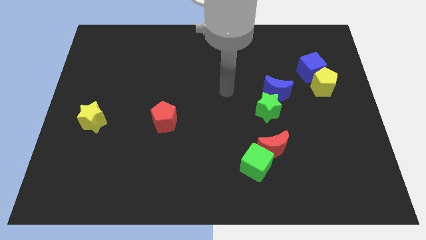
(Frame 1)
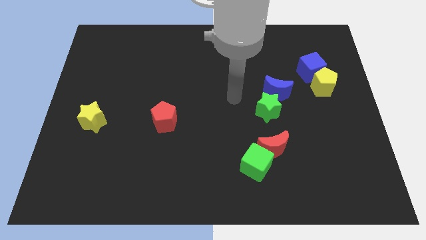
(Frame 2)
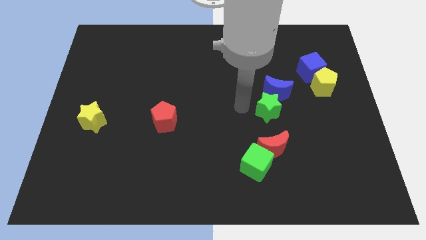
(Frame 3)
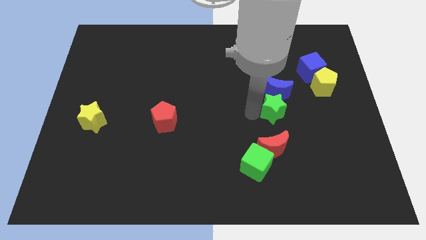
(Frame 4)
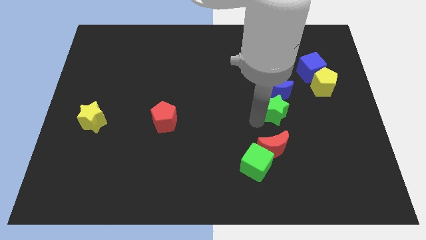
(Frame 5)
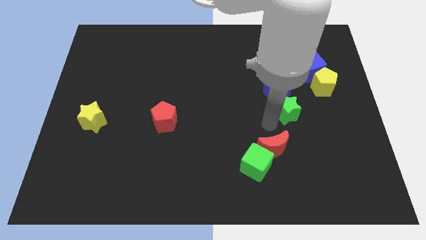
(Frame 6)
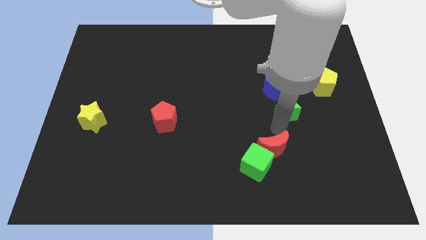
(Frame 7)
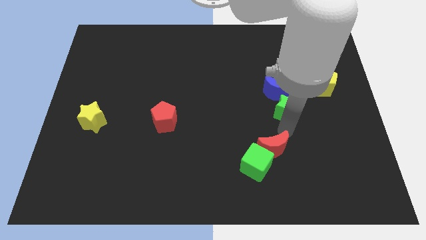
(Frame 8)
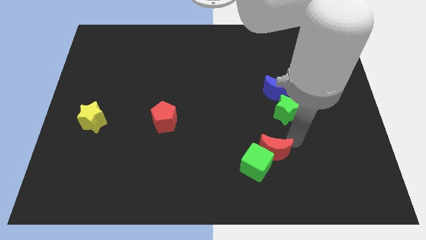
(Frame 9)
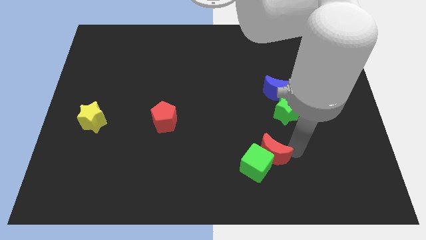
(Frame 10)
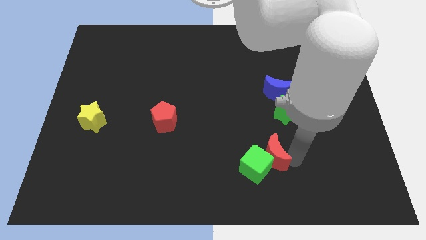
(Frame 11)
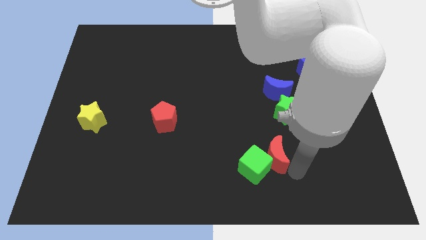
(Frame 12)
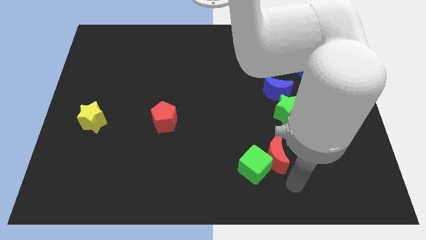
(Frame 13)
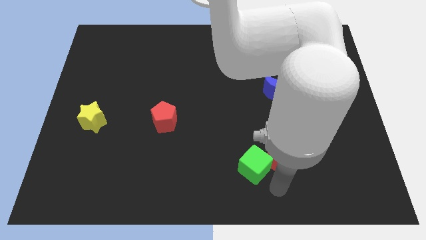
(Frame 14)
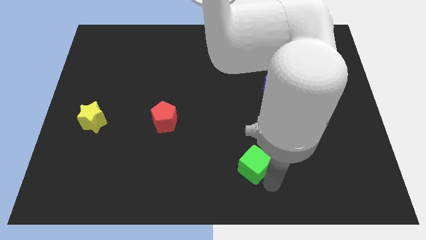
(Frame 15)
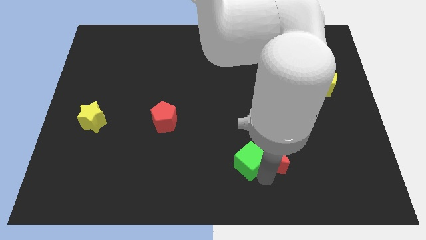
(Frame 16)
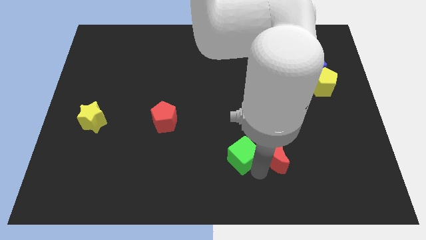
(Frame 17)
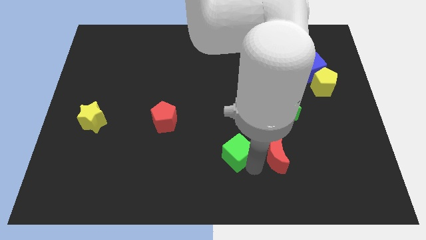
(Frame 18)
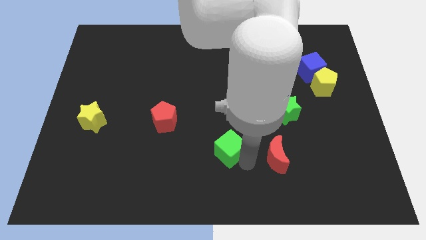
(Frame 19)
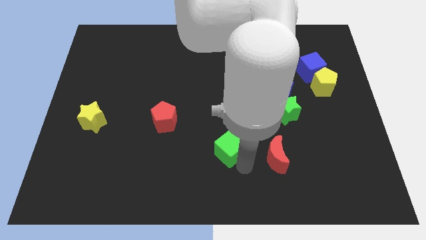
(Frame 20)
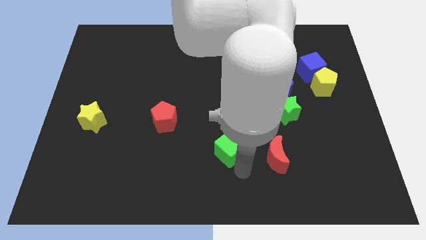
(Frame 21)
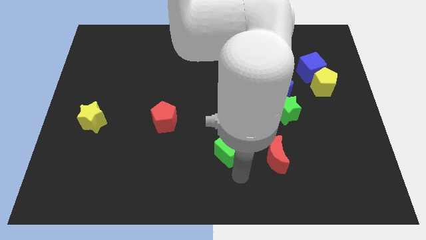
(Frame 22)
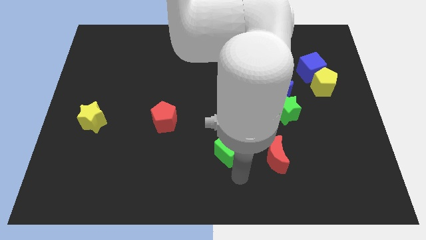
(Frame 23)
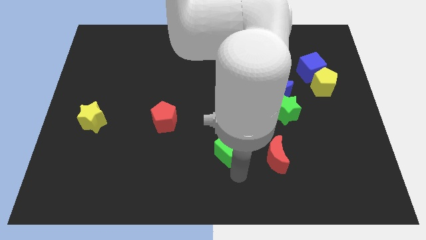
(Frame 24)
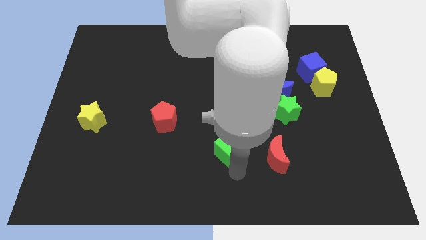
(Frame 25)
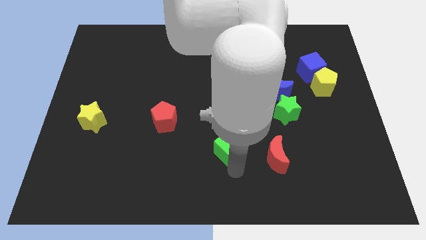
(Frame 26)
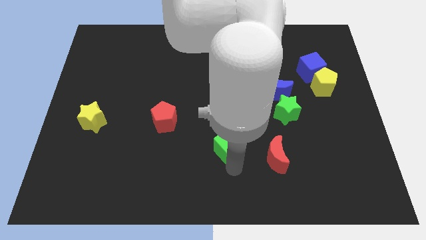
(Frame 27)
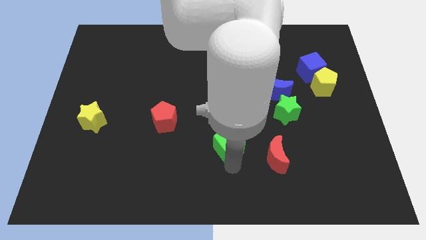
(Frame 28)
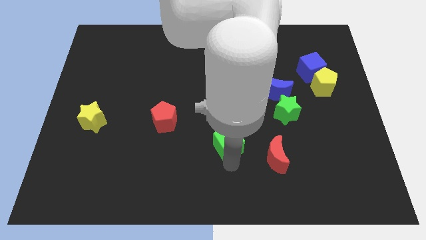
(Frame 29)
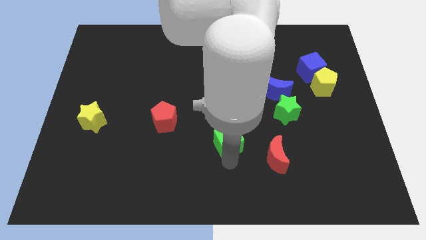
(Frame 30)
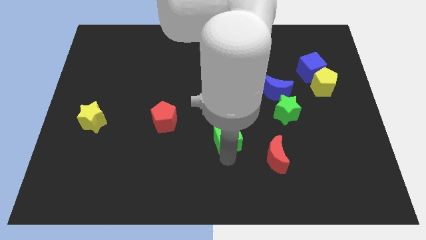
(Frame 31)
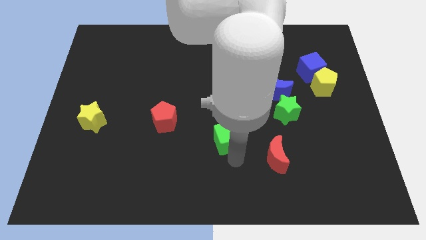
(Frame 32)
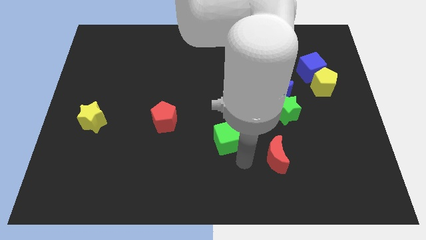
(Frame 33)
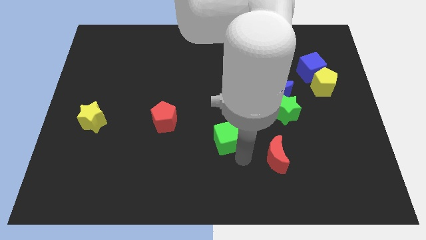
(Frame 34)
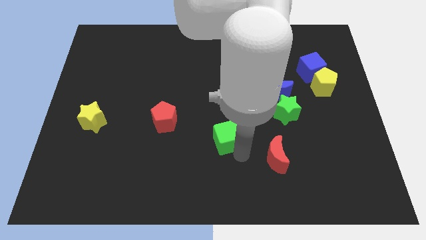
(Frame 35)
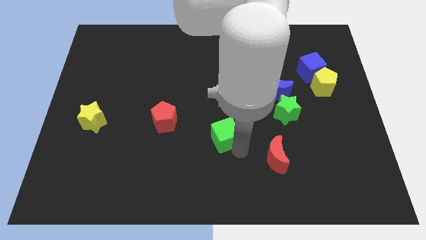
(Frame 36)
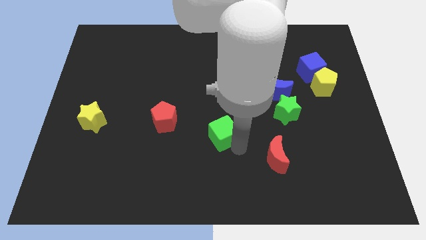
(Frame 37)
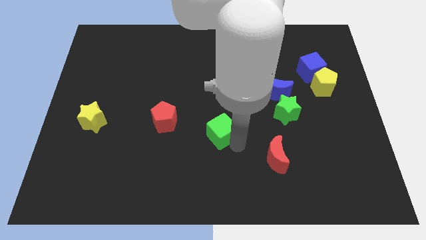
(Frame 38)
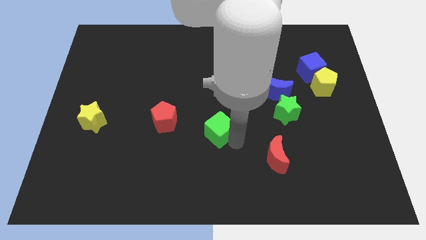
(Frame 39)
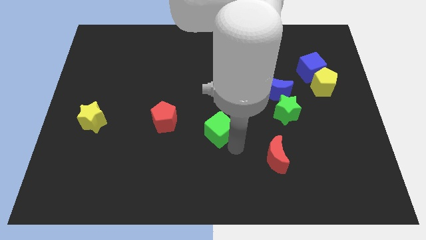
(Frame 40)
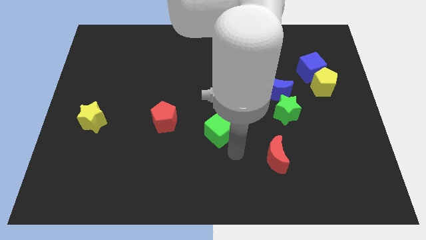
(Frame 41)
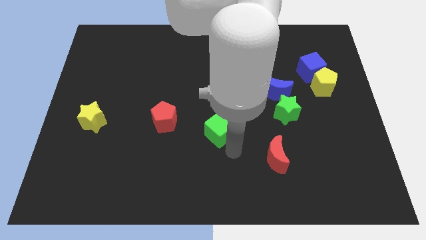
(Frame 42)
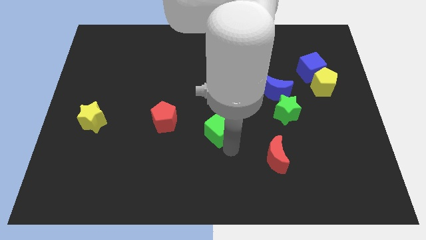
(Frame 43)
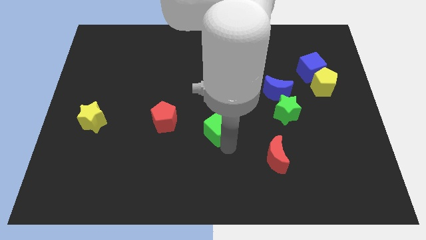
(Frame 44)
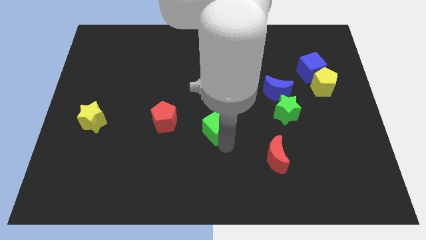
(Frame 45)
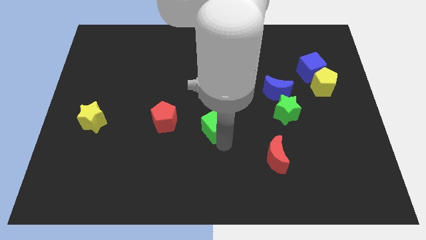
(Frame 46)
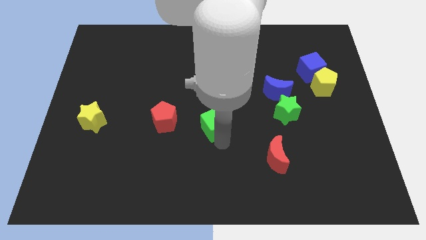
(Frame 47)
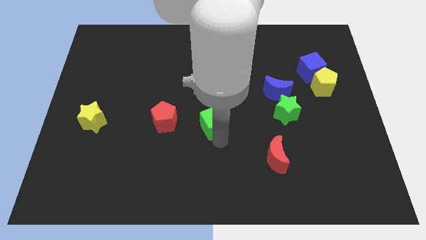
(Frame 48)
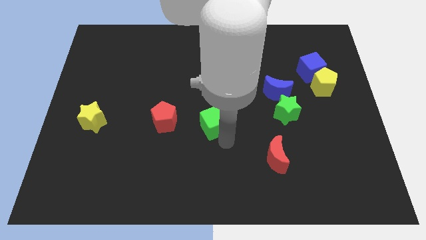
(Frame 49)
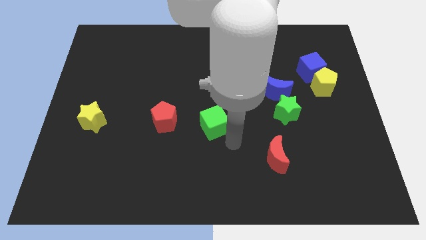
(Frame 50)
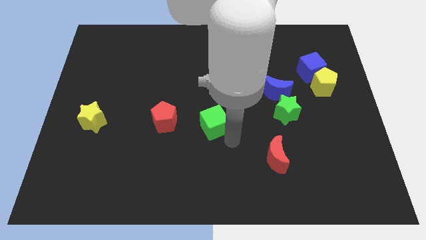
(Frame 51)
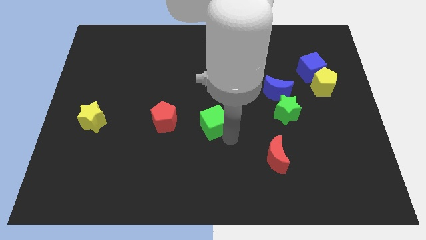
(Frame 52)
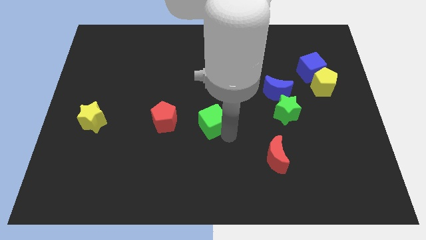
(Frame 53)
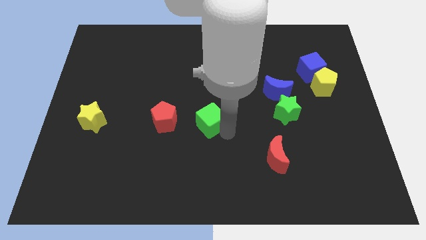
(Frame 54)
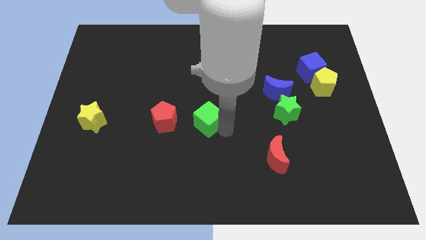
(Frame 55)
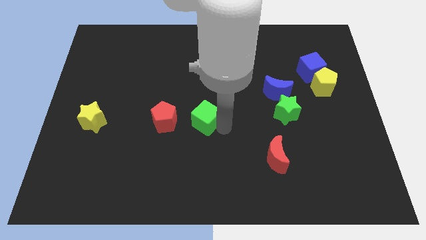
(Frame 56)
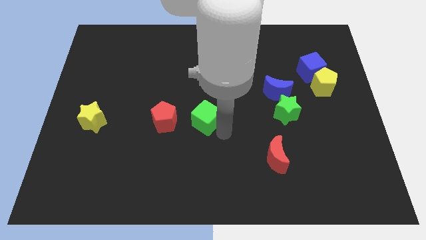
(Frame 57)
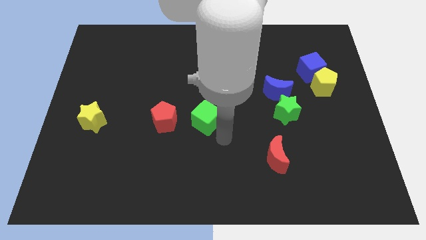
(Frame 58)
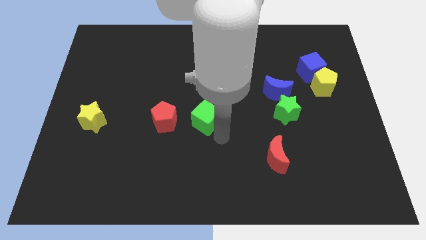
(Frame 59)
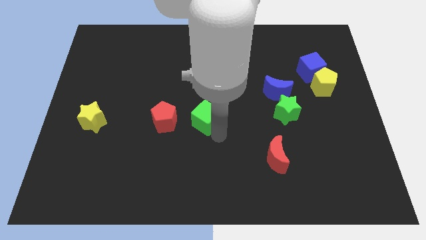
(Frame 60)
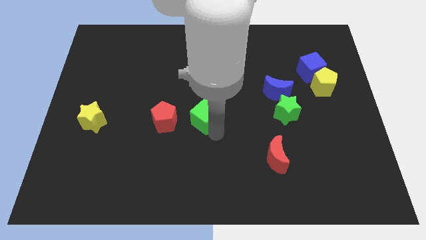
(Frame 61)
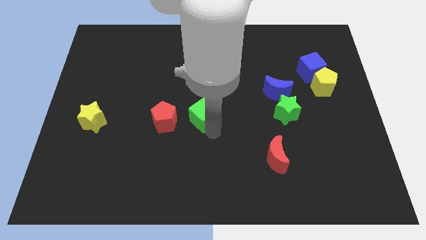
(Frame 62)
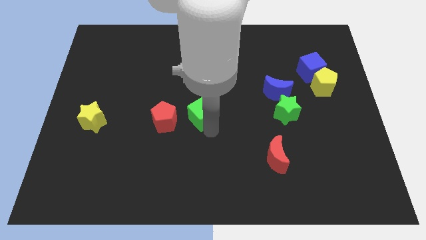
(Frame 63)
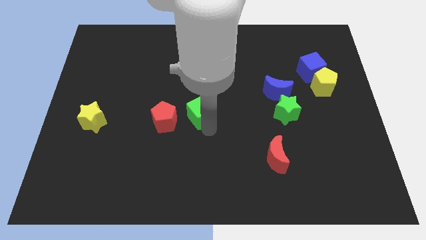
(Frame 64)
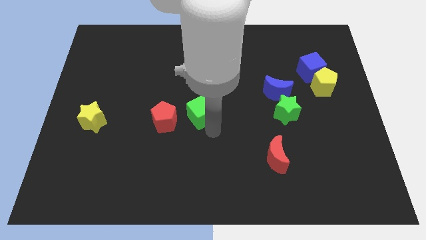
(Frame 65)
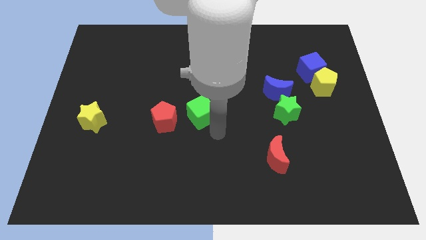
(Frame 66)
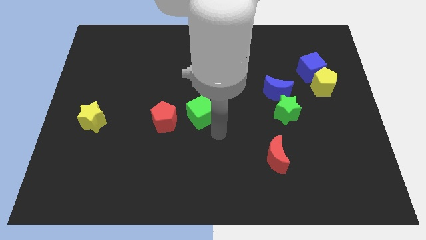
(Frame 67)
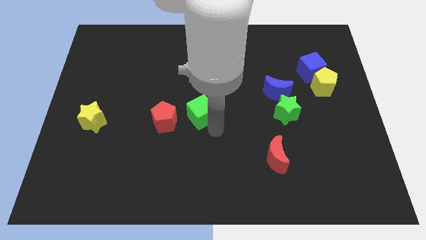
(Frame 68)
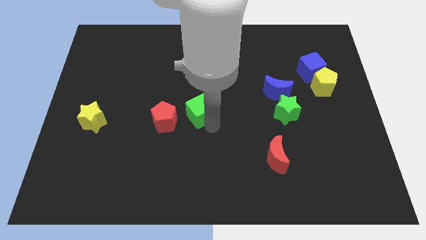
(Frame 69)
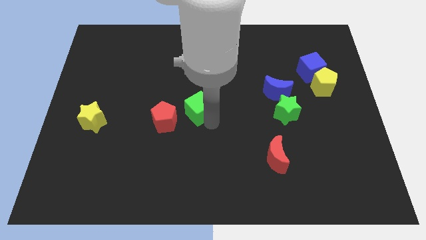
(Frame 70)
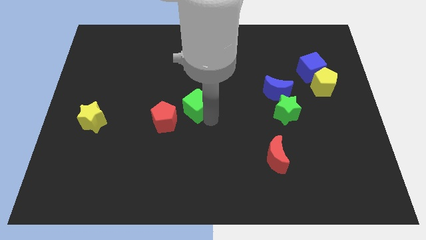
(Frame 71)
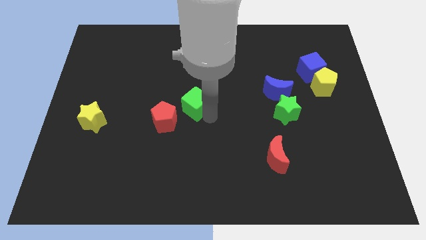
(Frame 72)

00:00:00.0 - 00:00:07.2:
move the green cube upwards and to the left

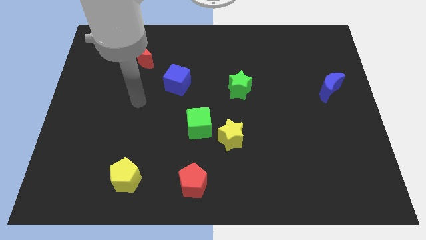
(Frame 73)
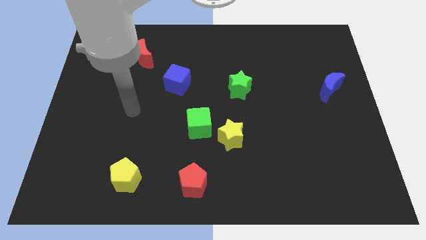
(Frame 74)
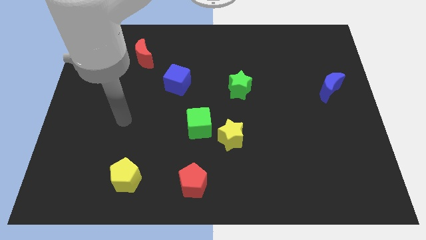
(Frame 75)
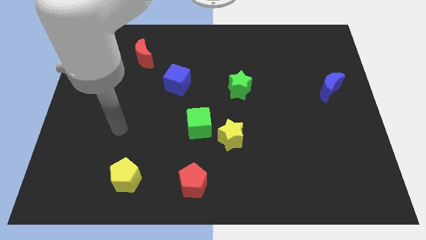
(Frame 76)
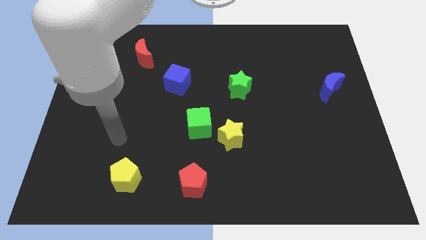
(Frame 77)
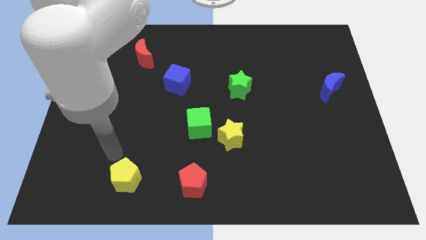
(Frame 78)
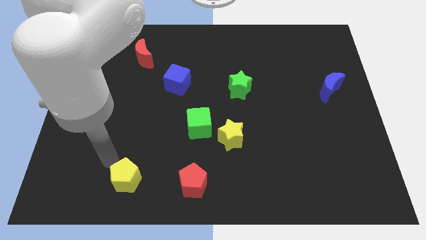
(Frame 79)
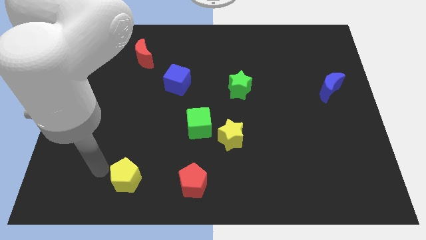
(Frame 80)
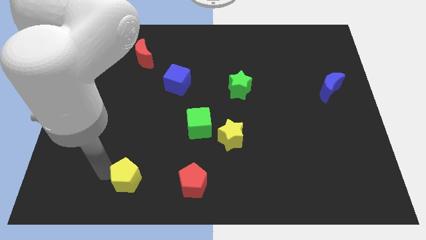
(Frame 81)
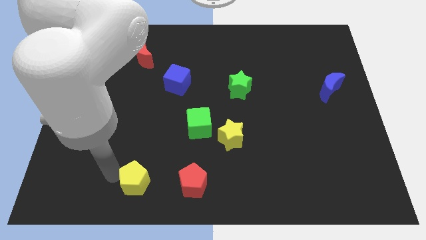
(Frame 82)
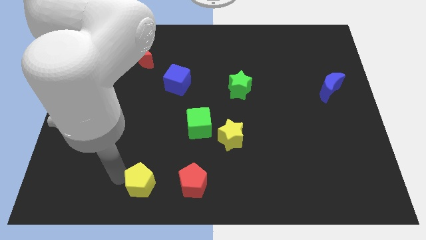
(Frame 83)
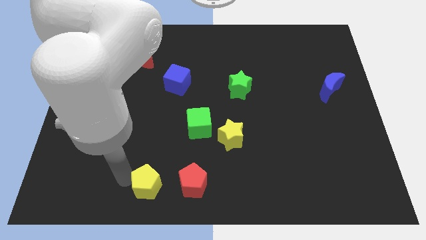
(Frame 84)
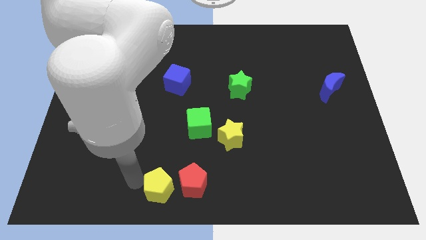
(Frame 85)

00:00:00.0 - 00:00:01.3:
slide the yellow pentagon to the right somewhat

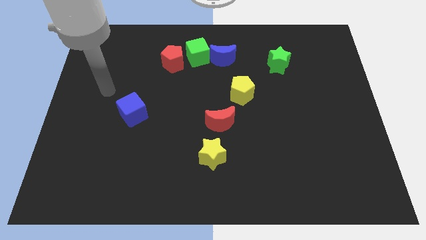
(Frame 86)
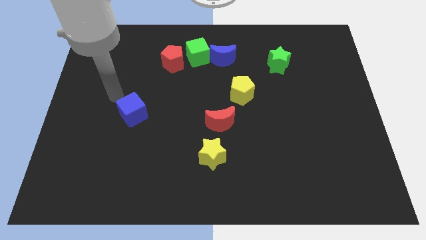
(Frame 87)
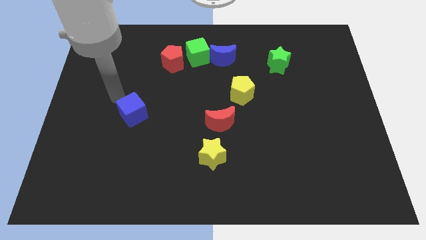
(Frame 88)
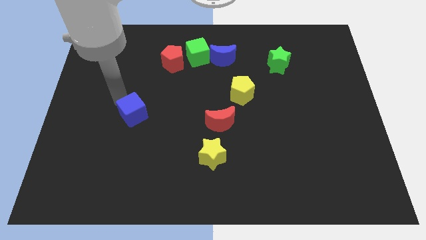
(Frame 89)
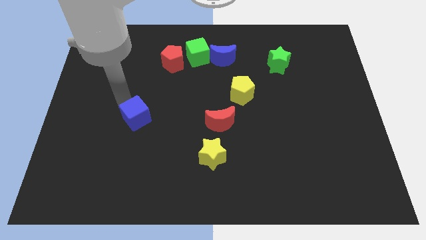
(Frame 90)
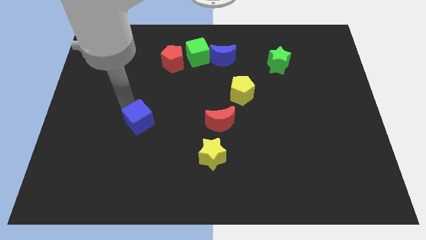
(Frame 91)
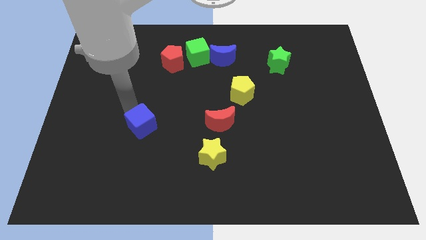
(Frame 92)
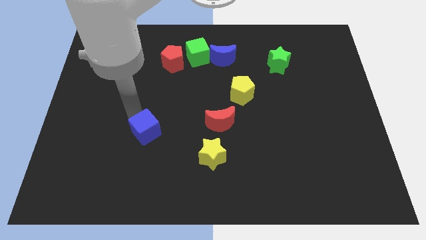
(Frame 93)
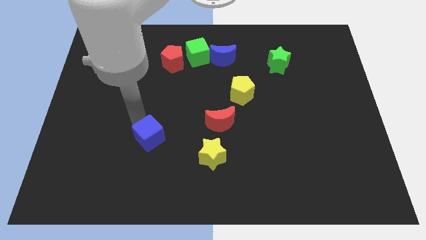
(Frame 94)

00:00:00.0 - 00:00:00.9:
push the blue cube down and right diagonally a bit
